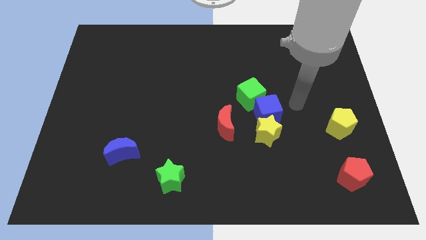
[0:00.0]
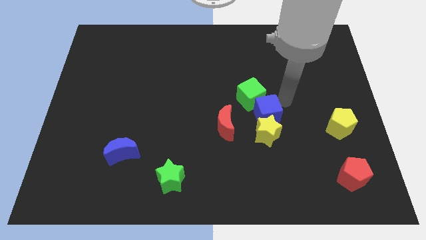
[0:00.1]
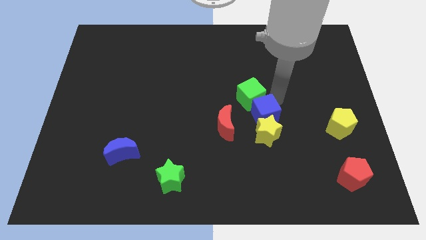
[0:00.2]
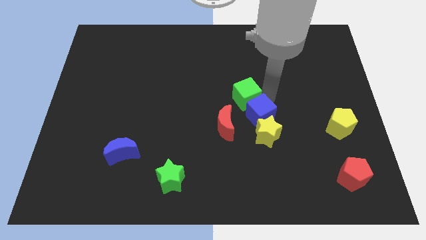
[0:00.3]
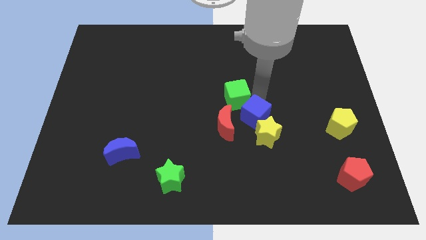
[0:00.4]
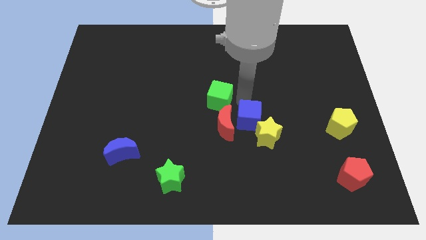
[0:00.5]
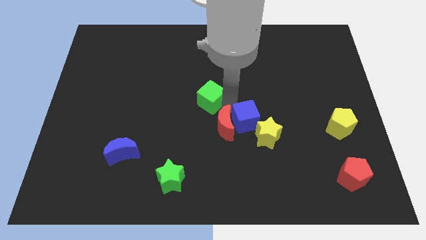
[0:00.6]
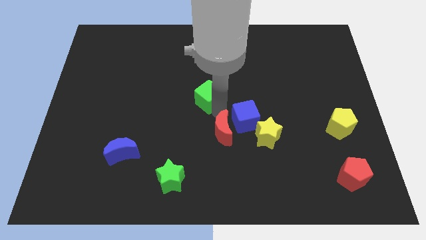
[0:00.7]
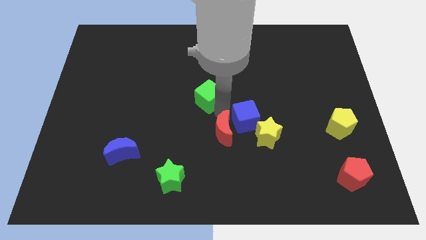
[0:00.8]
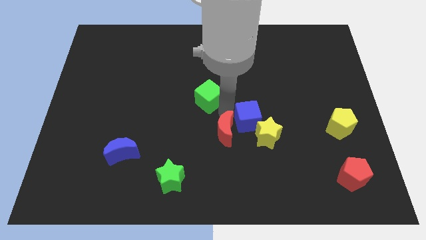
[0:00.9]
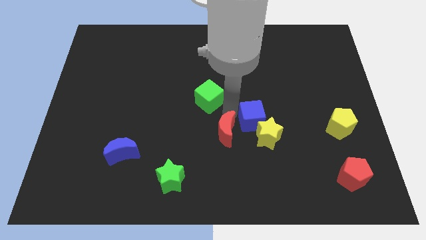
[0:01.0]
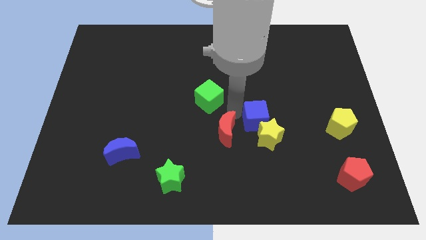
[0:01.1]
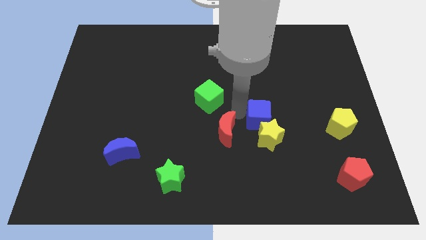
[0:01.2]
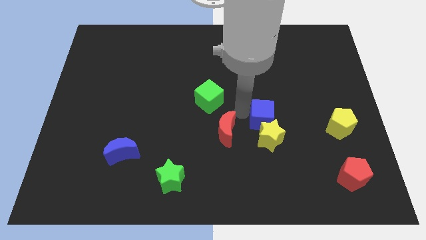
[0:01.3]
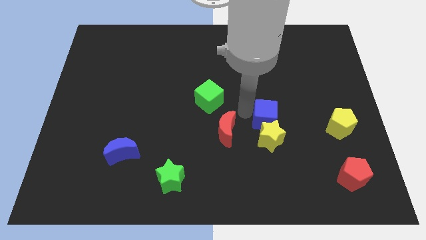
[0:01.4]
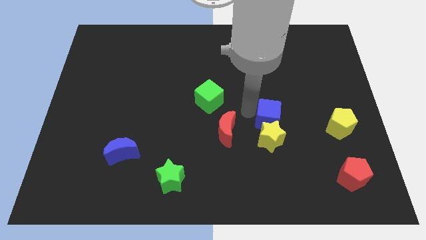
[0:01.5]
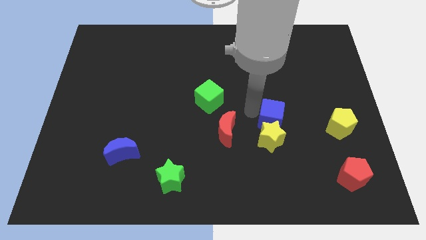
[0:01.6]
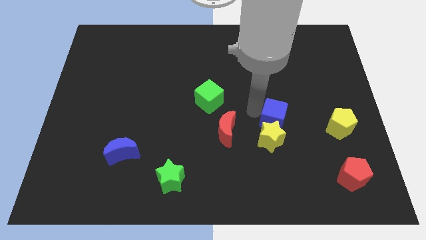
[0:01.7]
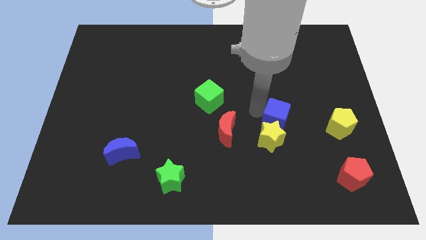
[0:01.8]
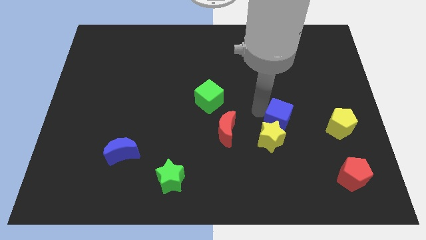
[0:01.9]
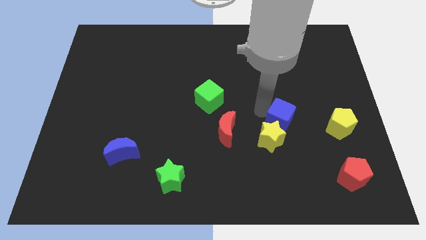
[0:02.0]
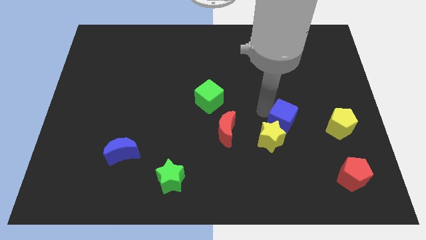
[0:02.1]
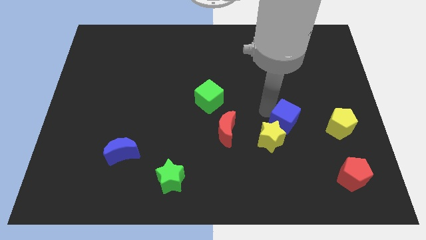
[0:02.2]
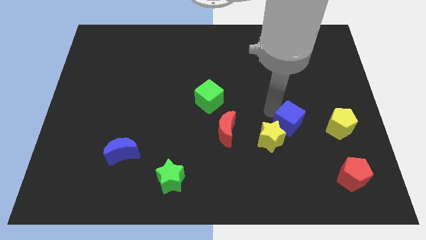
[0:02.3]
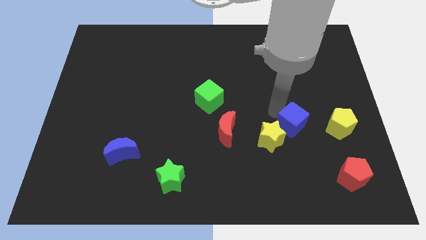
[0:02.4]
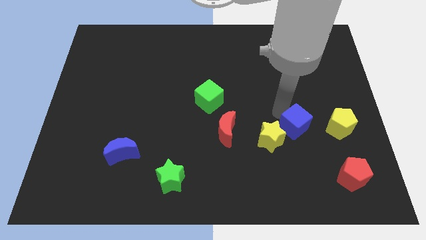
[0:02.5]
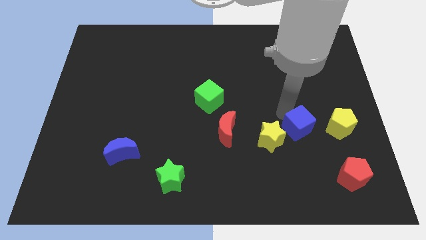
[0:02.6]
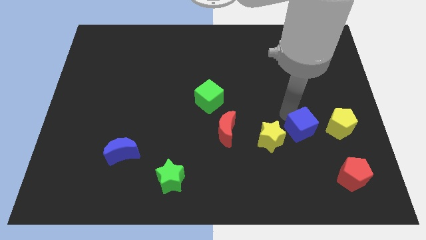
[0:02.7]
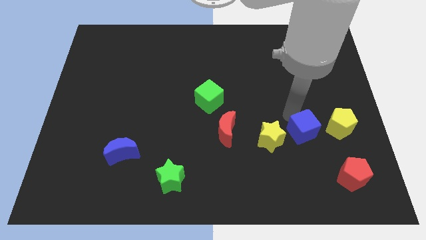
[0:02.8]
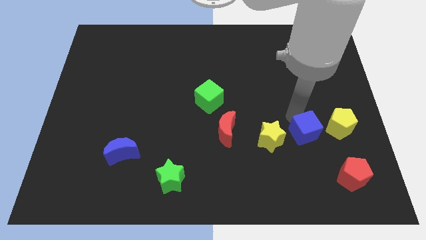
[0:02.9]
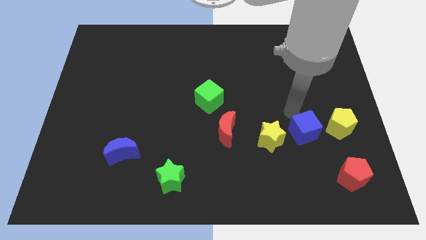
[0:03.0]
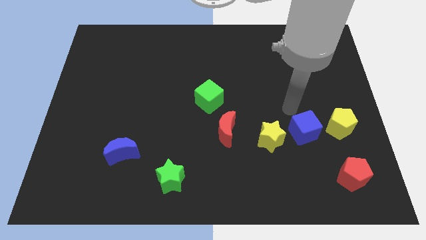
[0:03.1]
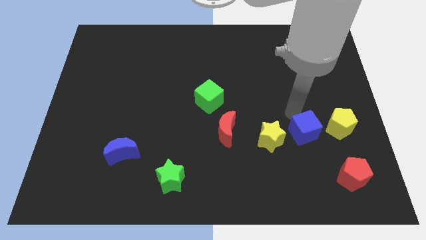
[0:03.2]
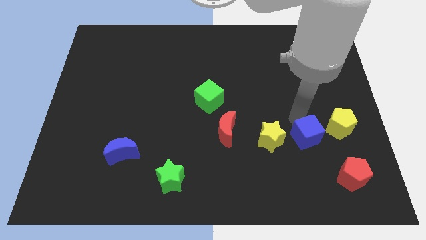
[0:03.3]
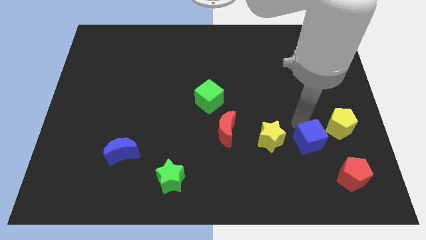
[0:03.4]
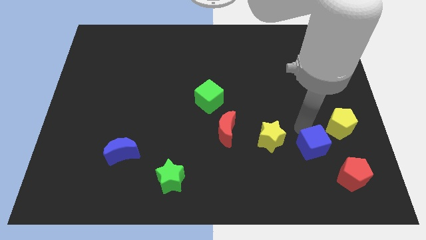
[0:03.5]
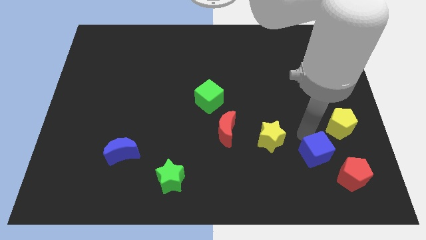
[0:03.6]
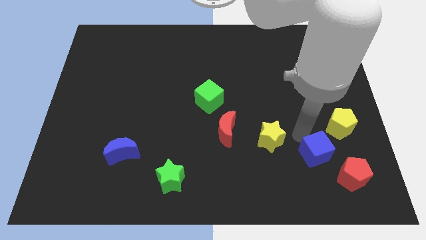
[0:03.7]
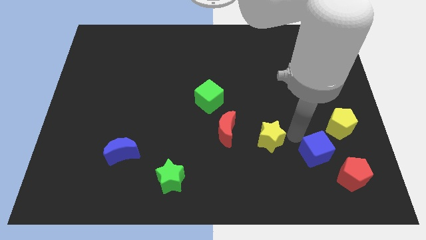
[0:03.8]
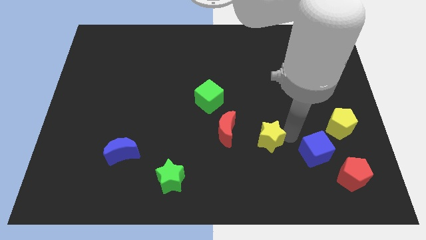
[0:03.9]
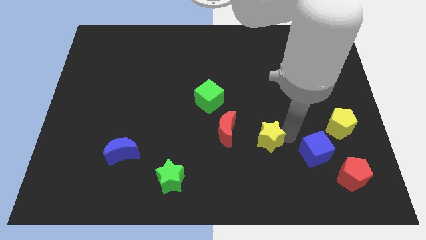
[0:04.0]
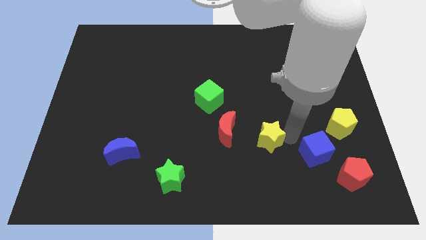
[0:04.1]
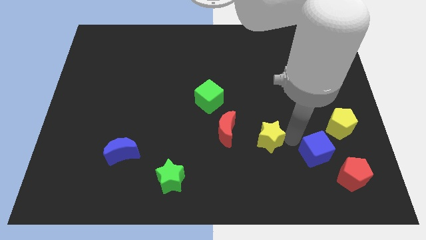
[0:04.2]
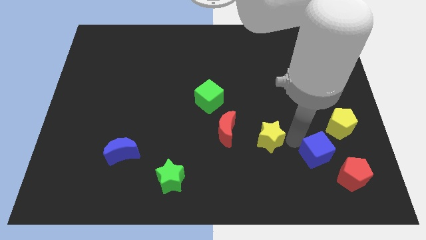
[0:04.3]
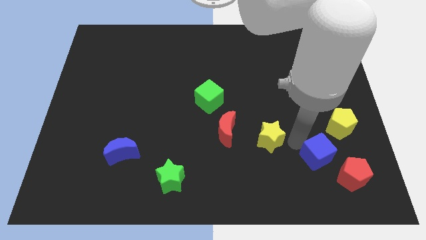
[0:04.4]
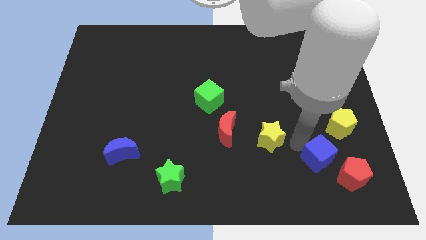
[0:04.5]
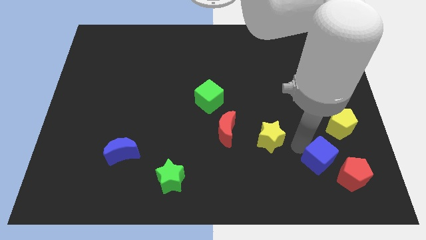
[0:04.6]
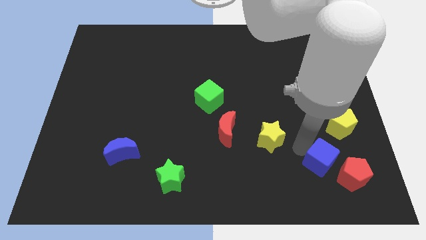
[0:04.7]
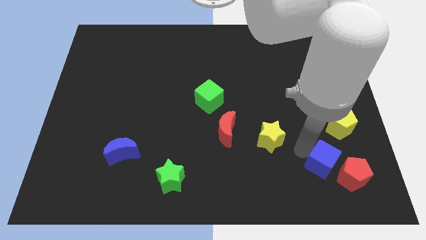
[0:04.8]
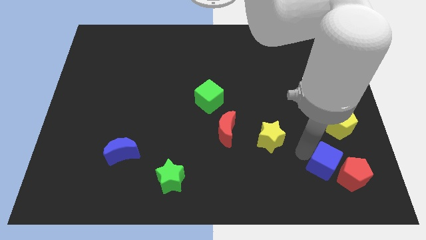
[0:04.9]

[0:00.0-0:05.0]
move the blue cube to the red pentagon

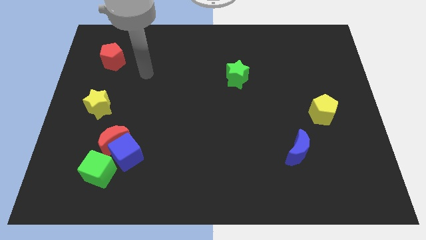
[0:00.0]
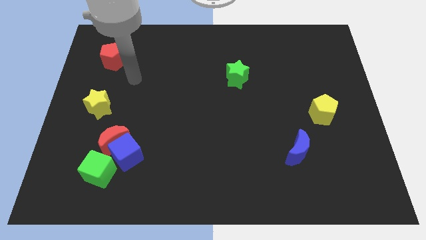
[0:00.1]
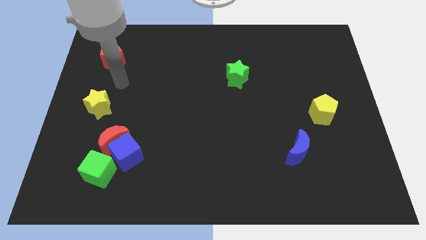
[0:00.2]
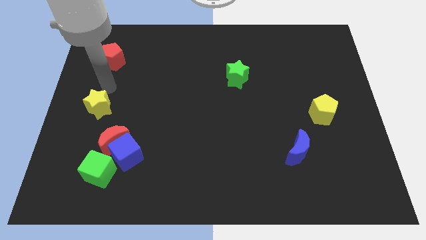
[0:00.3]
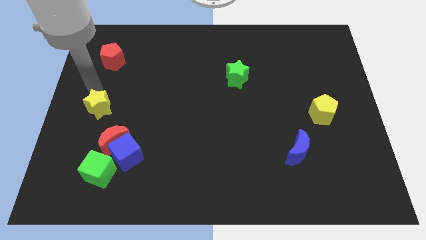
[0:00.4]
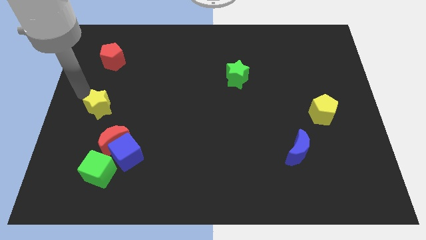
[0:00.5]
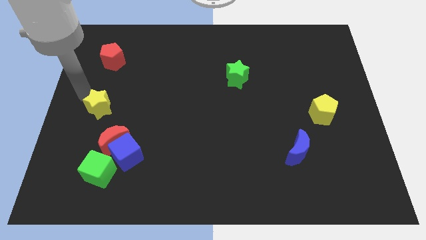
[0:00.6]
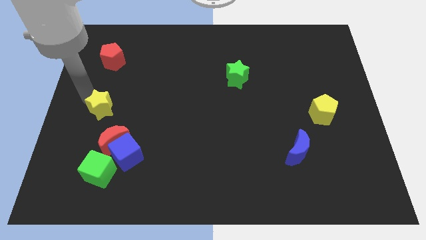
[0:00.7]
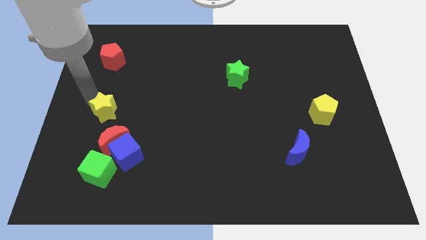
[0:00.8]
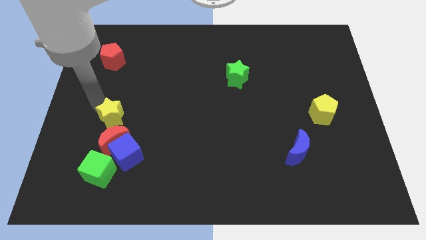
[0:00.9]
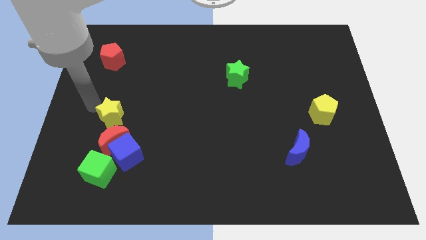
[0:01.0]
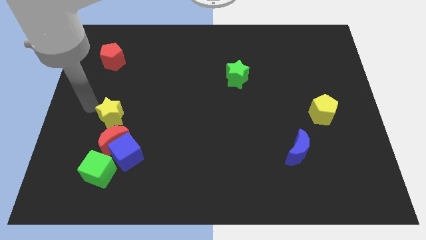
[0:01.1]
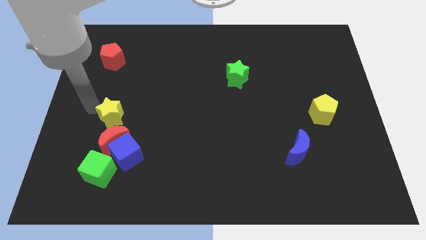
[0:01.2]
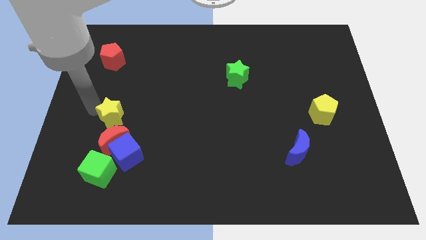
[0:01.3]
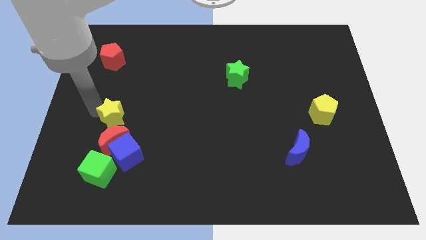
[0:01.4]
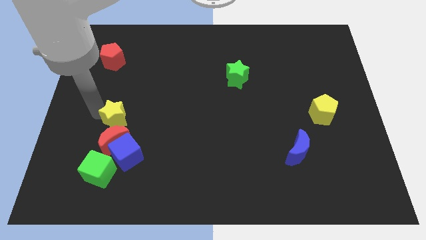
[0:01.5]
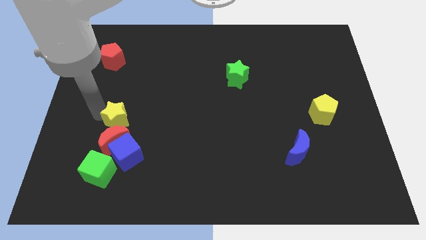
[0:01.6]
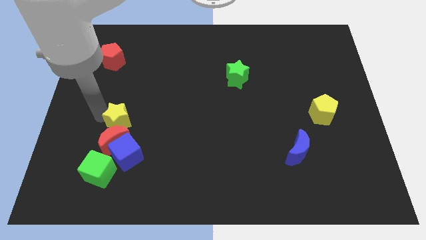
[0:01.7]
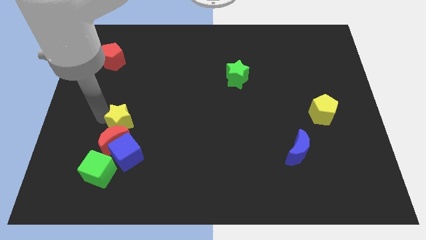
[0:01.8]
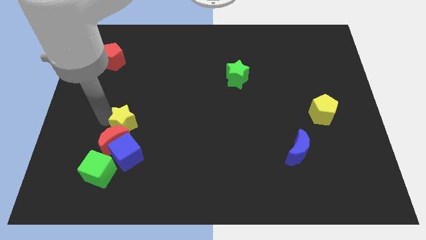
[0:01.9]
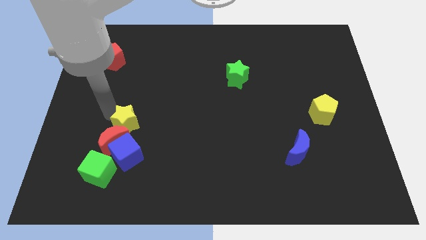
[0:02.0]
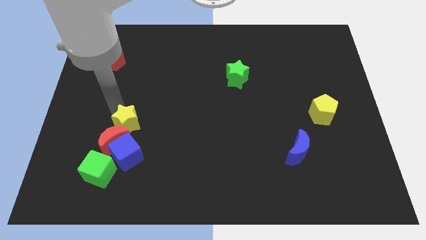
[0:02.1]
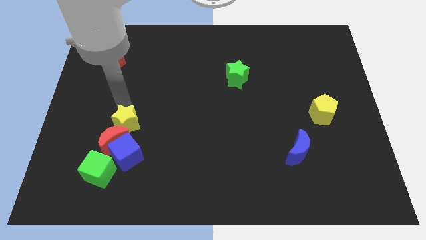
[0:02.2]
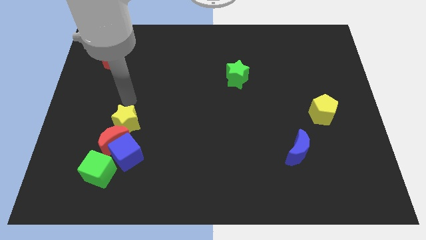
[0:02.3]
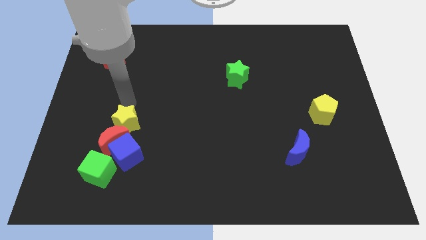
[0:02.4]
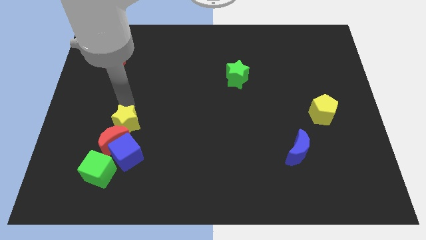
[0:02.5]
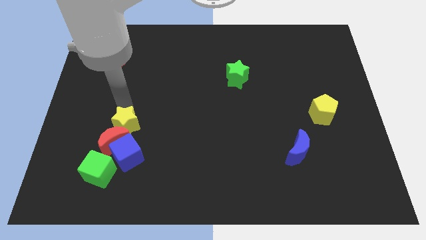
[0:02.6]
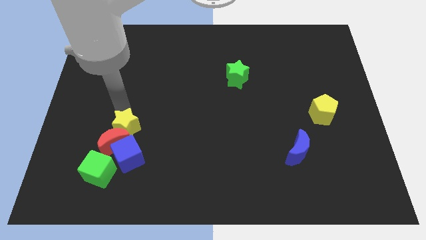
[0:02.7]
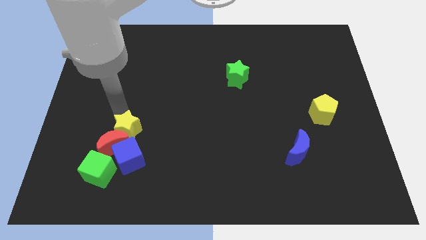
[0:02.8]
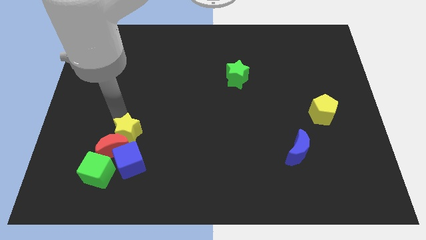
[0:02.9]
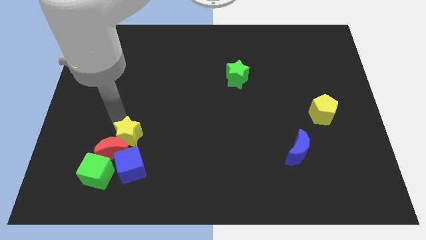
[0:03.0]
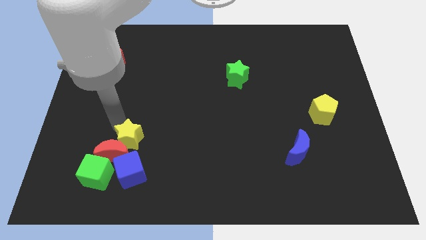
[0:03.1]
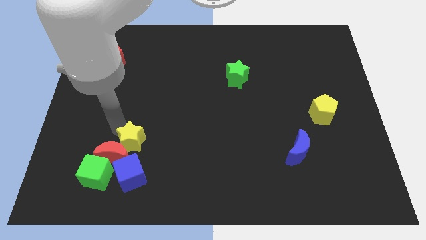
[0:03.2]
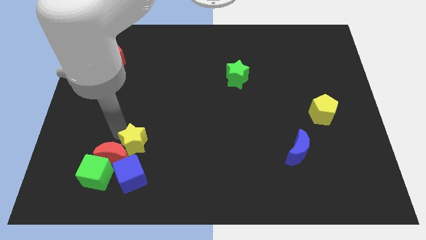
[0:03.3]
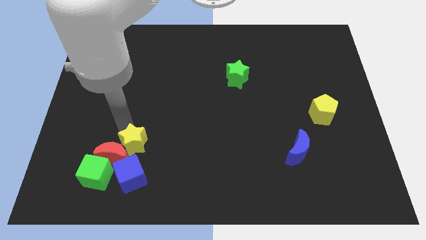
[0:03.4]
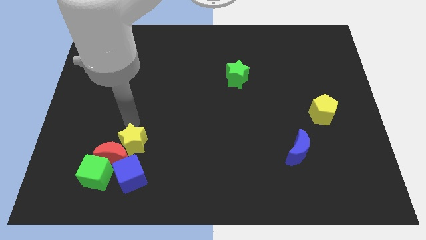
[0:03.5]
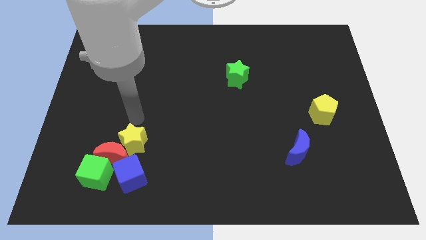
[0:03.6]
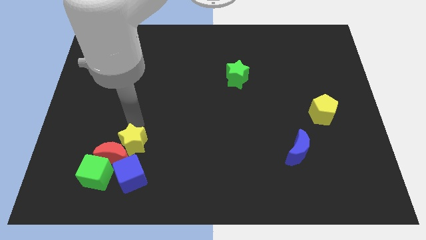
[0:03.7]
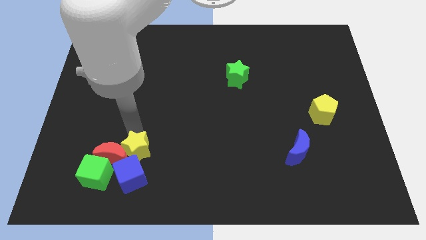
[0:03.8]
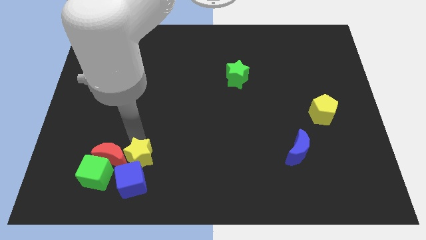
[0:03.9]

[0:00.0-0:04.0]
move the yellow star next to the blue cube
